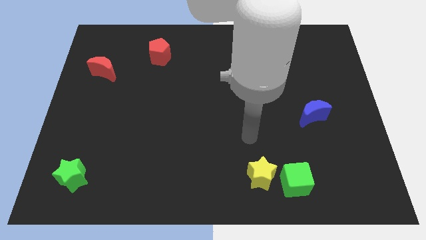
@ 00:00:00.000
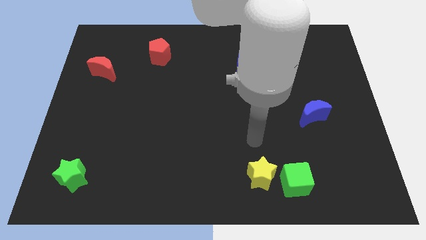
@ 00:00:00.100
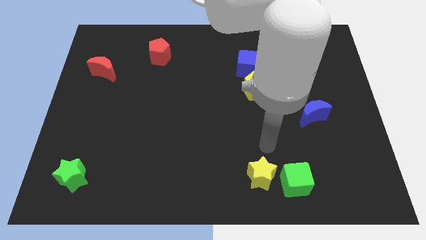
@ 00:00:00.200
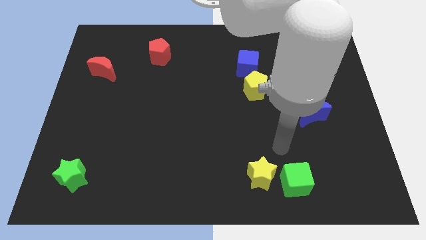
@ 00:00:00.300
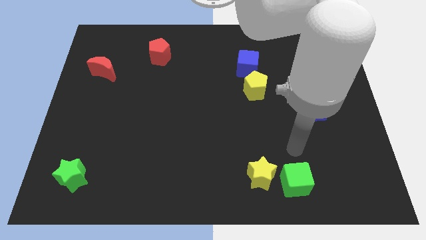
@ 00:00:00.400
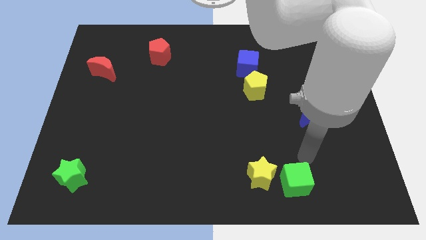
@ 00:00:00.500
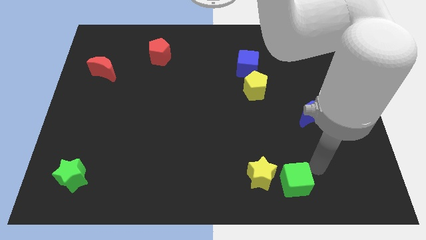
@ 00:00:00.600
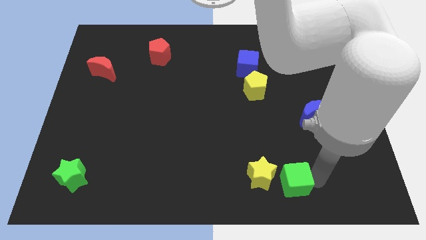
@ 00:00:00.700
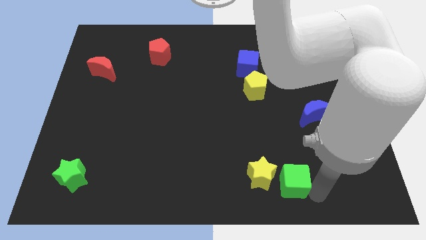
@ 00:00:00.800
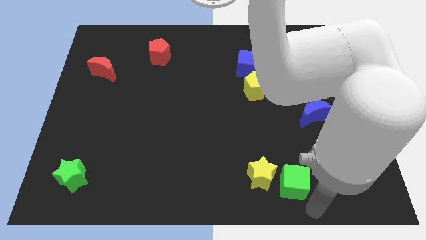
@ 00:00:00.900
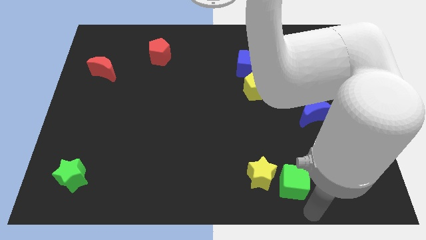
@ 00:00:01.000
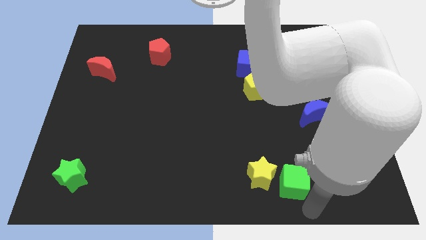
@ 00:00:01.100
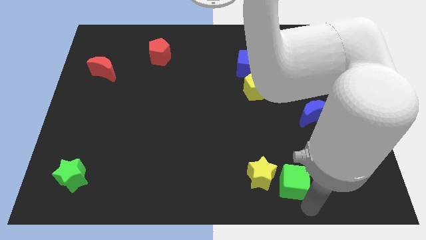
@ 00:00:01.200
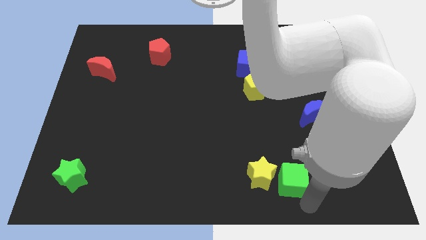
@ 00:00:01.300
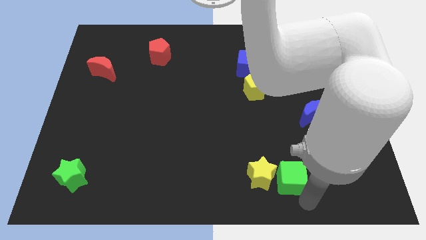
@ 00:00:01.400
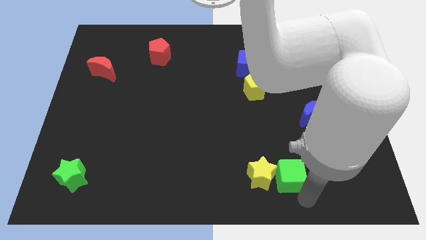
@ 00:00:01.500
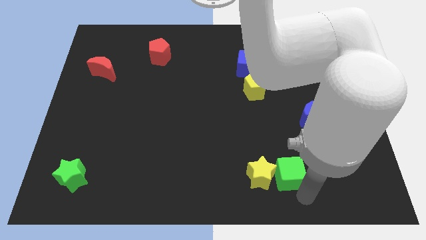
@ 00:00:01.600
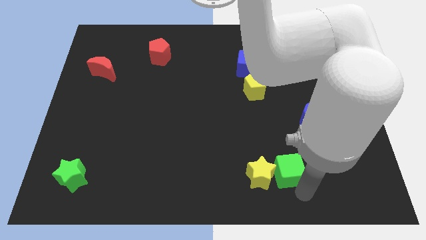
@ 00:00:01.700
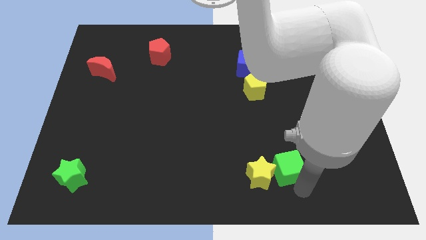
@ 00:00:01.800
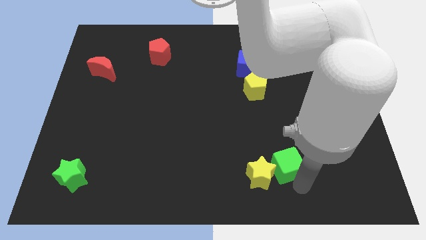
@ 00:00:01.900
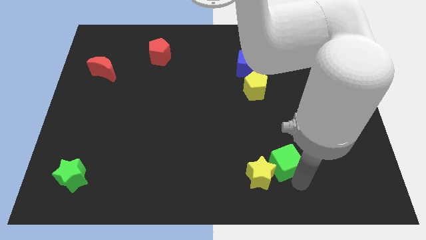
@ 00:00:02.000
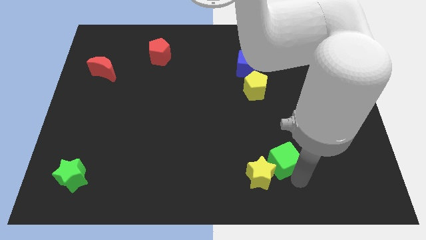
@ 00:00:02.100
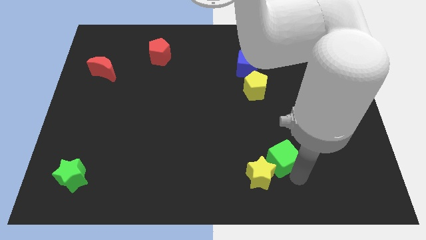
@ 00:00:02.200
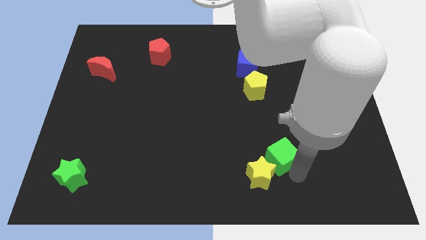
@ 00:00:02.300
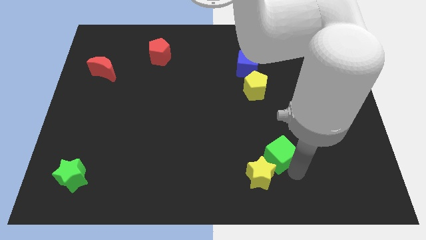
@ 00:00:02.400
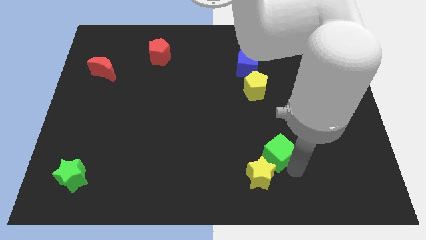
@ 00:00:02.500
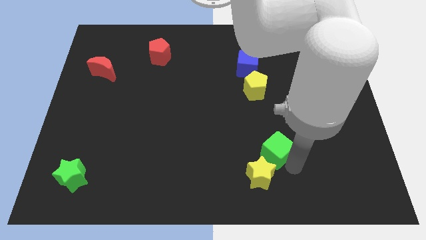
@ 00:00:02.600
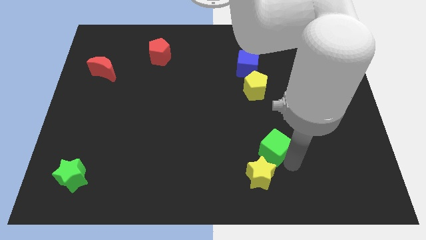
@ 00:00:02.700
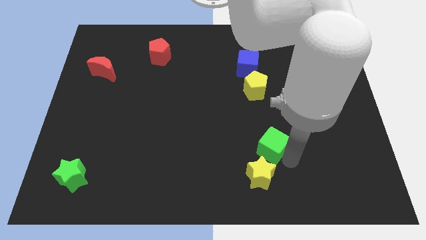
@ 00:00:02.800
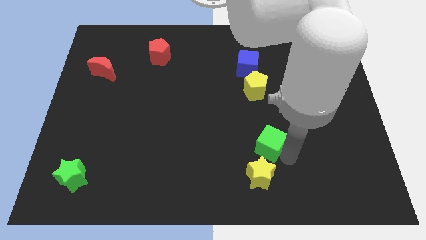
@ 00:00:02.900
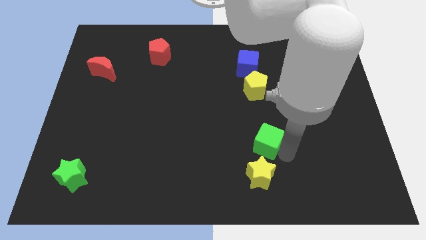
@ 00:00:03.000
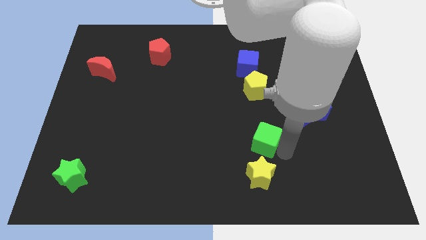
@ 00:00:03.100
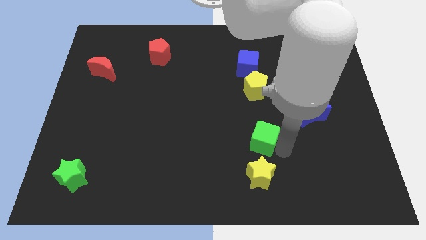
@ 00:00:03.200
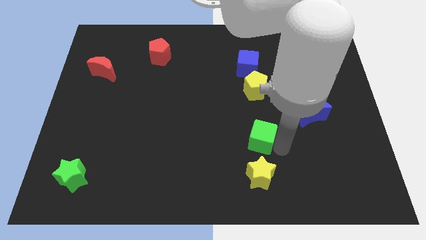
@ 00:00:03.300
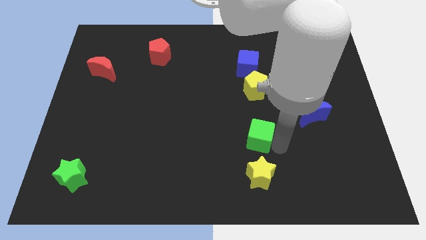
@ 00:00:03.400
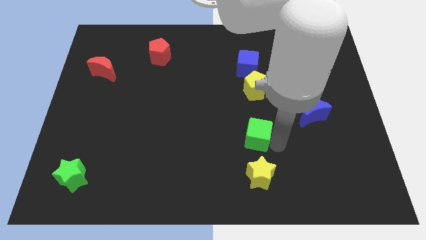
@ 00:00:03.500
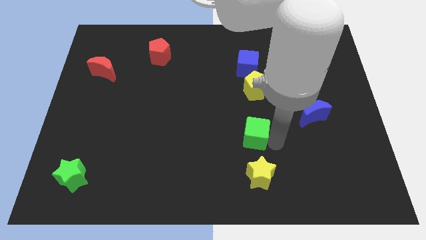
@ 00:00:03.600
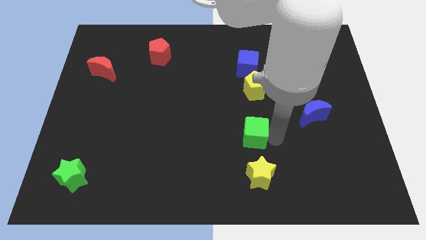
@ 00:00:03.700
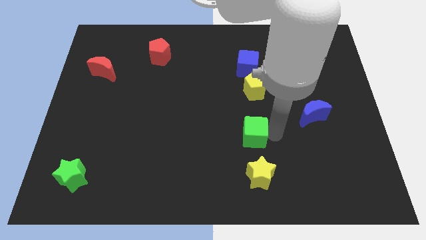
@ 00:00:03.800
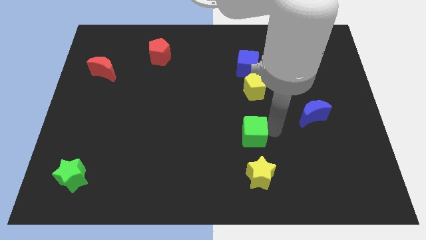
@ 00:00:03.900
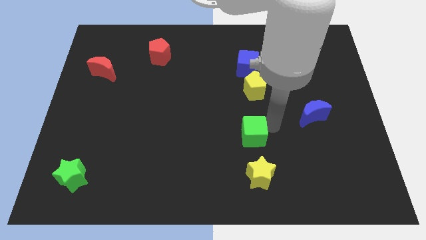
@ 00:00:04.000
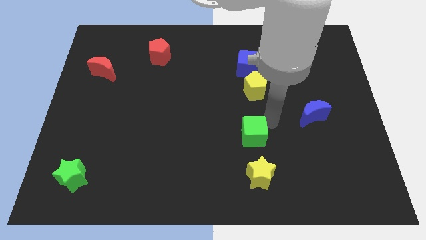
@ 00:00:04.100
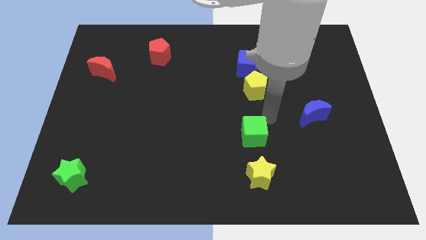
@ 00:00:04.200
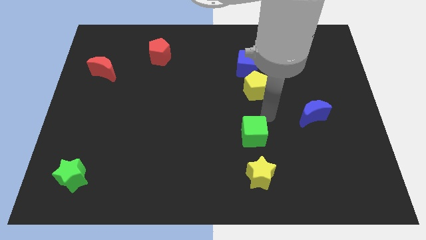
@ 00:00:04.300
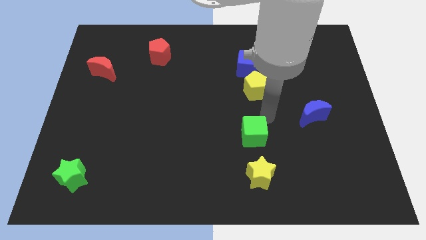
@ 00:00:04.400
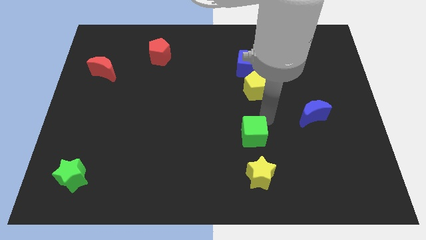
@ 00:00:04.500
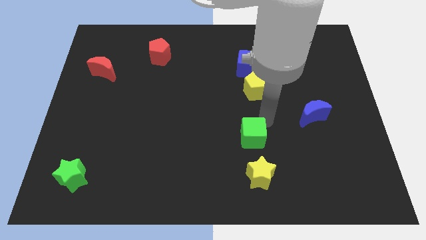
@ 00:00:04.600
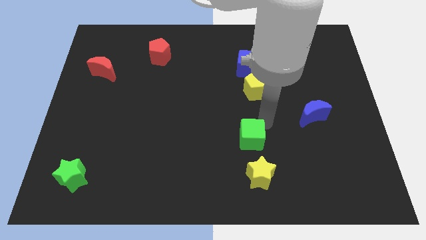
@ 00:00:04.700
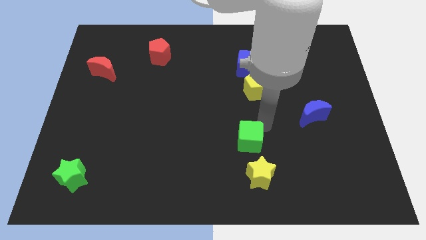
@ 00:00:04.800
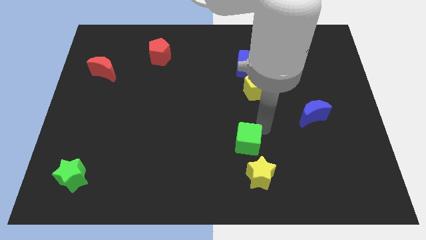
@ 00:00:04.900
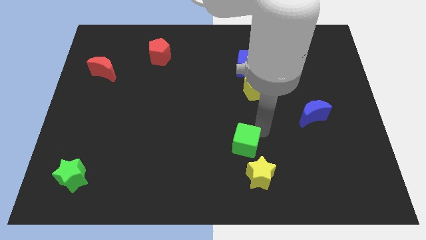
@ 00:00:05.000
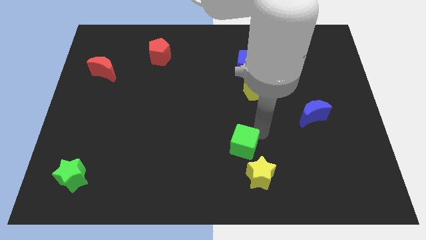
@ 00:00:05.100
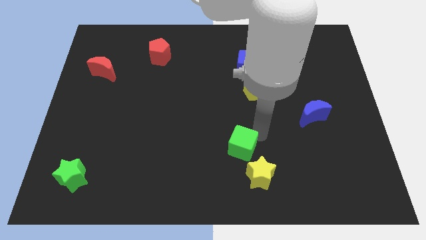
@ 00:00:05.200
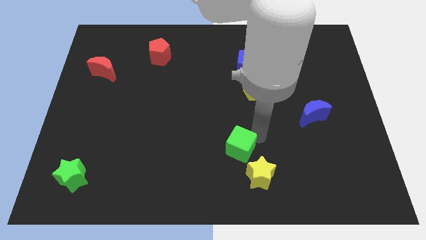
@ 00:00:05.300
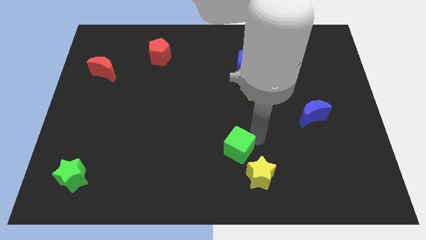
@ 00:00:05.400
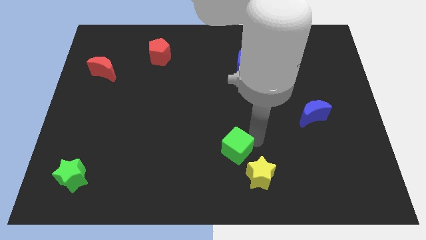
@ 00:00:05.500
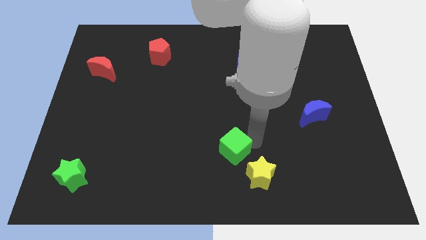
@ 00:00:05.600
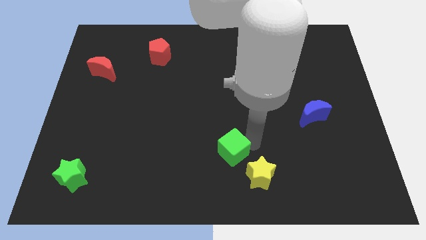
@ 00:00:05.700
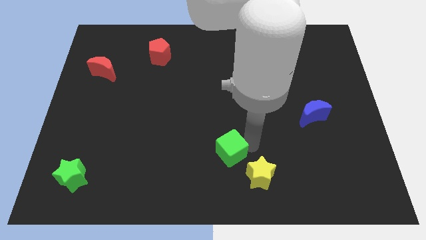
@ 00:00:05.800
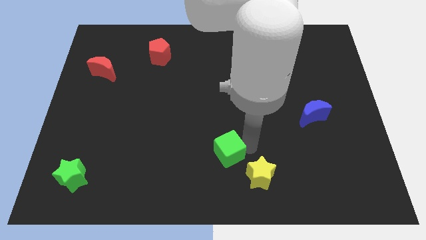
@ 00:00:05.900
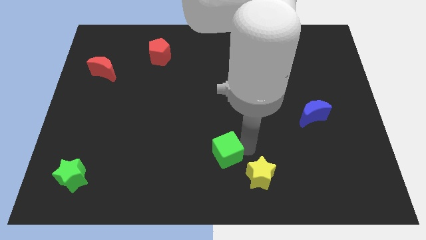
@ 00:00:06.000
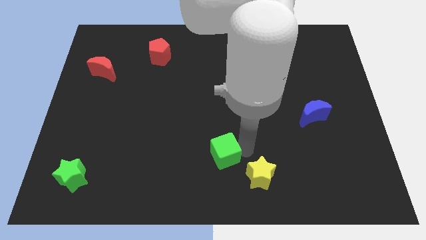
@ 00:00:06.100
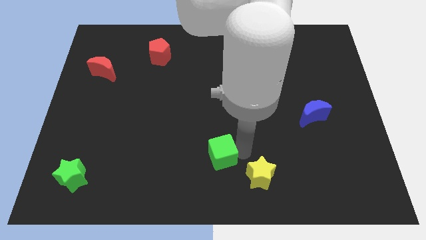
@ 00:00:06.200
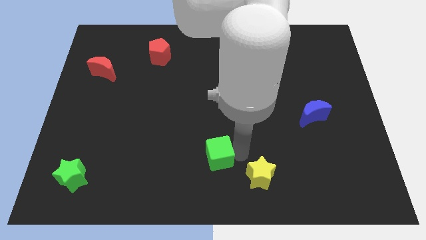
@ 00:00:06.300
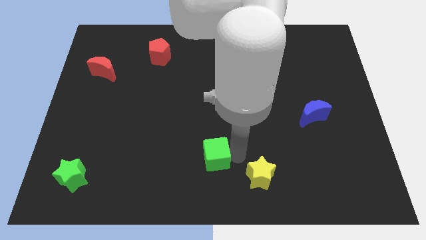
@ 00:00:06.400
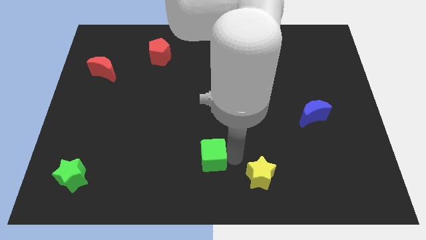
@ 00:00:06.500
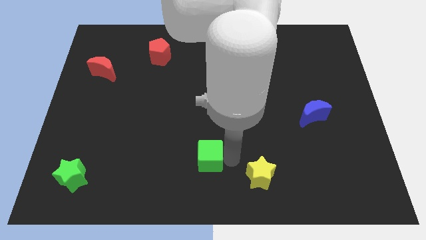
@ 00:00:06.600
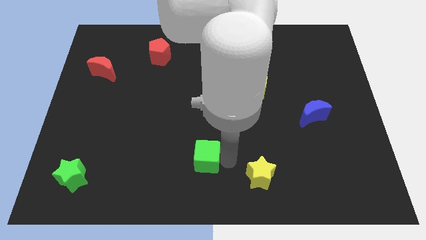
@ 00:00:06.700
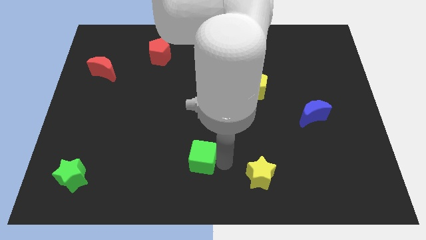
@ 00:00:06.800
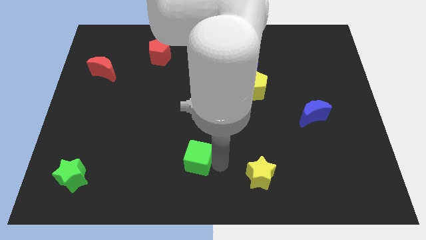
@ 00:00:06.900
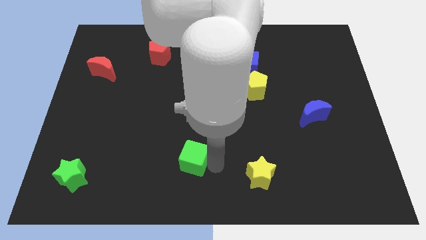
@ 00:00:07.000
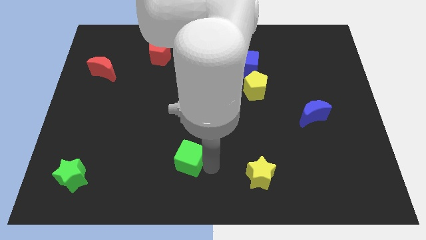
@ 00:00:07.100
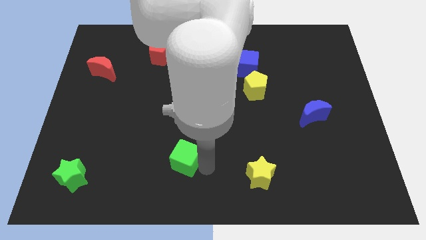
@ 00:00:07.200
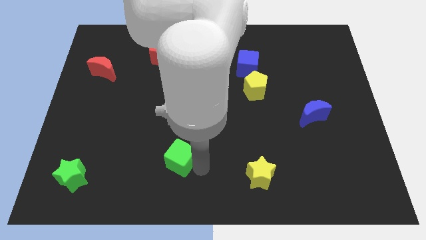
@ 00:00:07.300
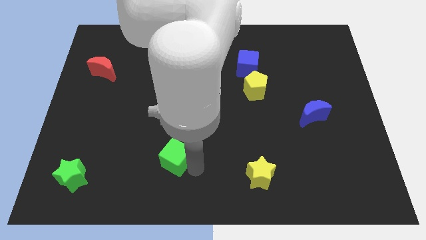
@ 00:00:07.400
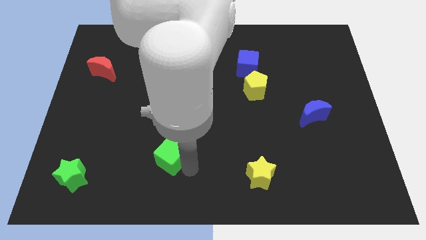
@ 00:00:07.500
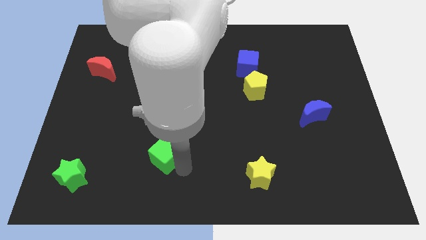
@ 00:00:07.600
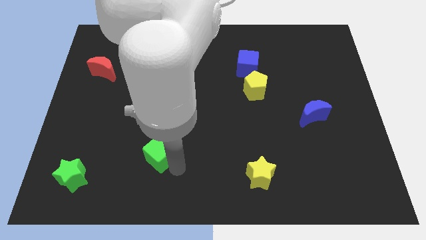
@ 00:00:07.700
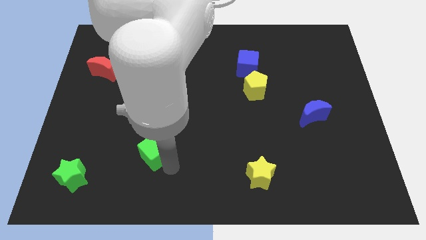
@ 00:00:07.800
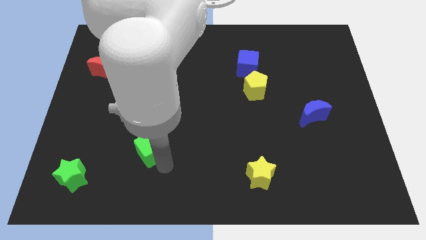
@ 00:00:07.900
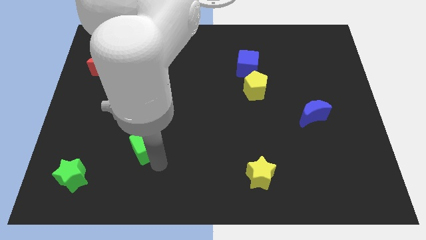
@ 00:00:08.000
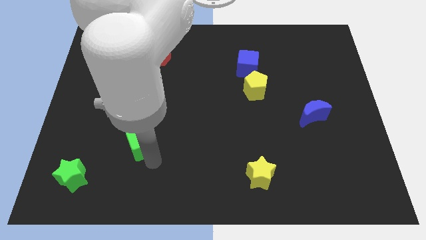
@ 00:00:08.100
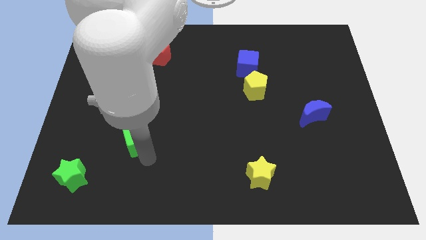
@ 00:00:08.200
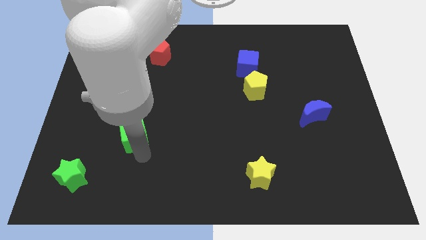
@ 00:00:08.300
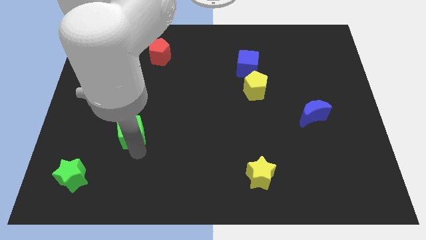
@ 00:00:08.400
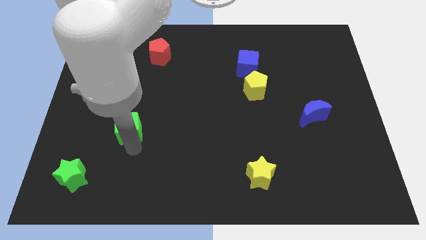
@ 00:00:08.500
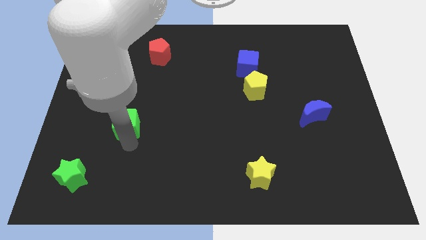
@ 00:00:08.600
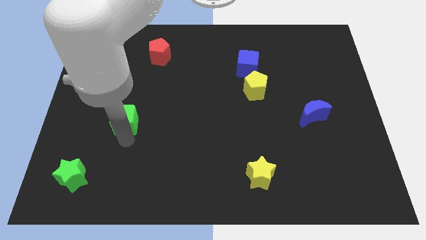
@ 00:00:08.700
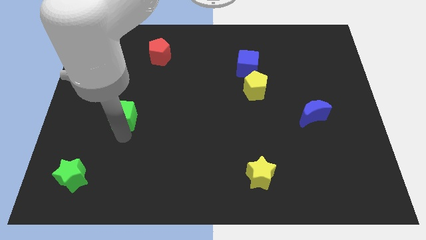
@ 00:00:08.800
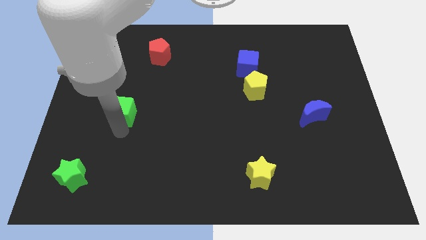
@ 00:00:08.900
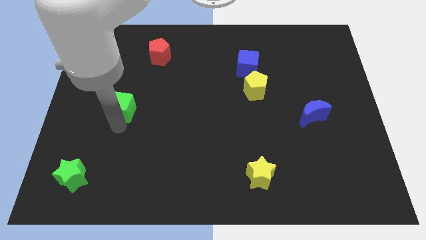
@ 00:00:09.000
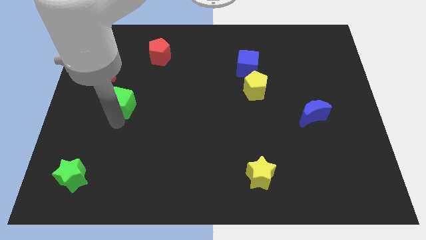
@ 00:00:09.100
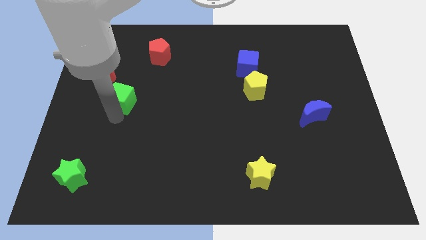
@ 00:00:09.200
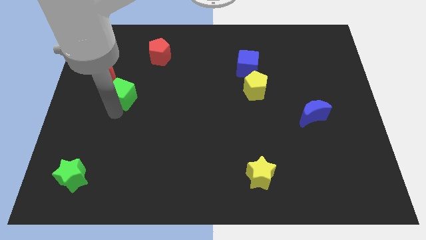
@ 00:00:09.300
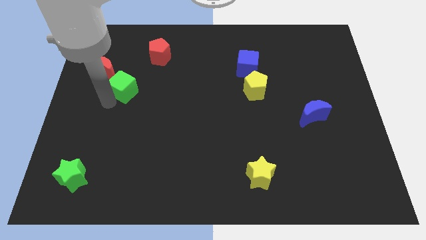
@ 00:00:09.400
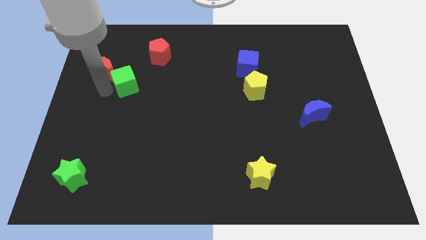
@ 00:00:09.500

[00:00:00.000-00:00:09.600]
push the green cube to the bottom left of the red pentagon
